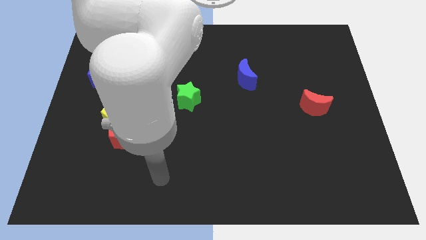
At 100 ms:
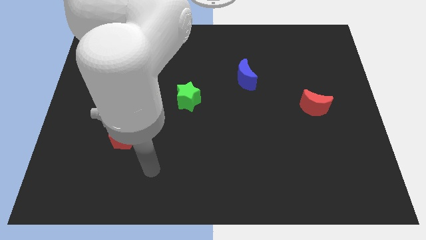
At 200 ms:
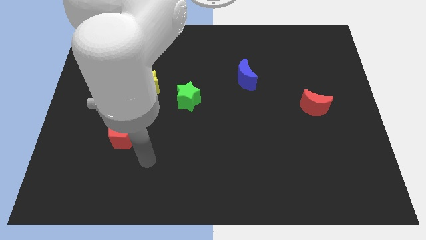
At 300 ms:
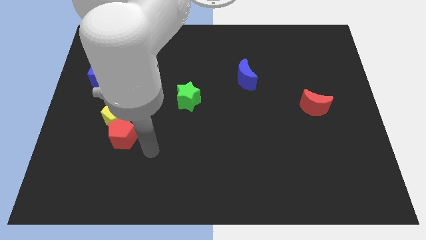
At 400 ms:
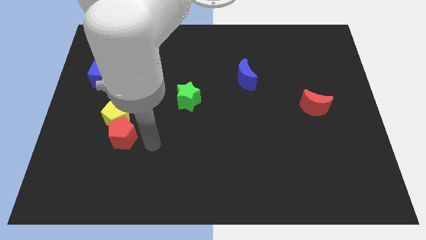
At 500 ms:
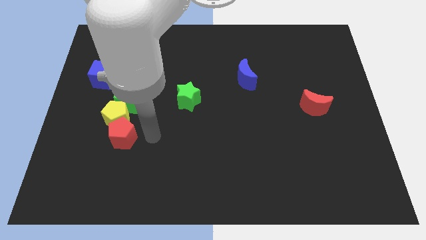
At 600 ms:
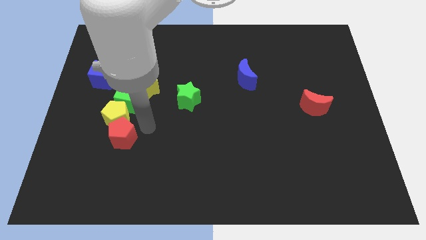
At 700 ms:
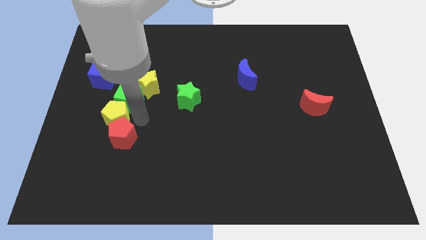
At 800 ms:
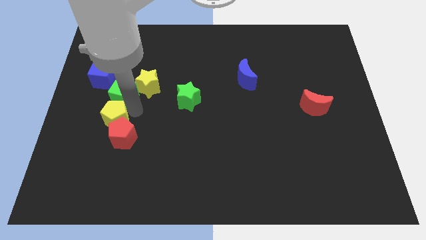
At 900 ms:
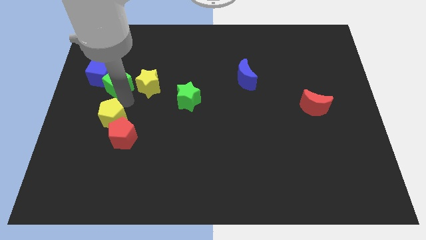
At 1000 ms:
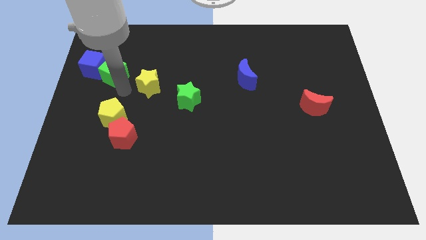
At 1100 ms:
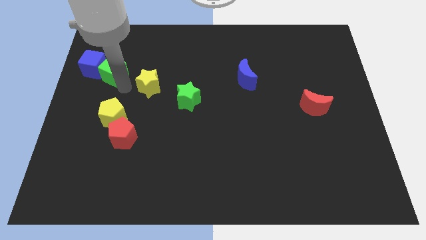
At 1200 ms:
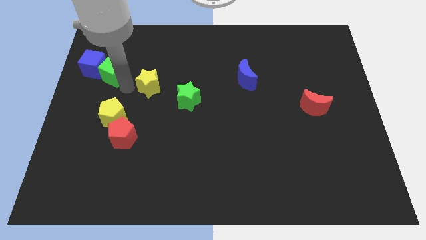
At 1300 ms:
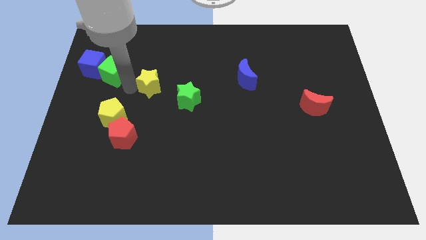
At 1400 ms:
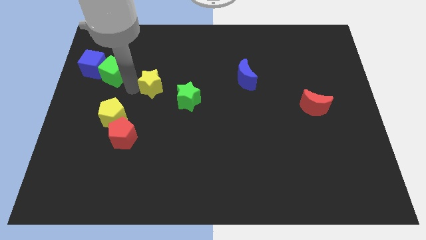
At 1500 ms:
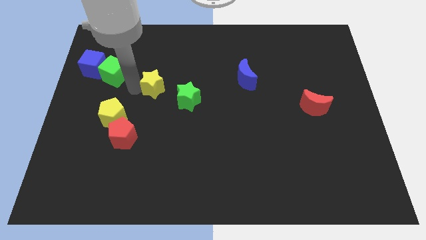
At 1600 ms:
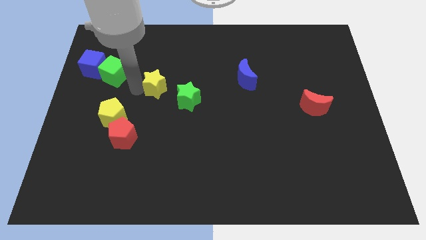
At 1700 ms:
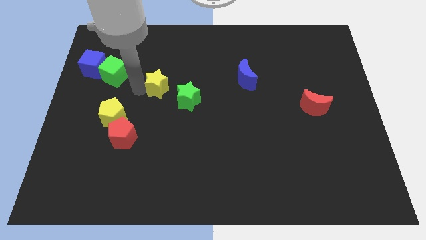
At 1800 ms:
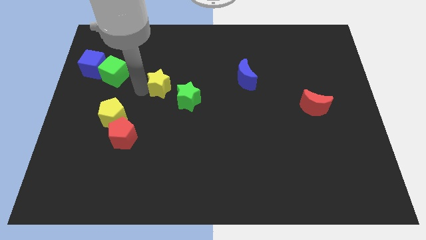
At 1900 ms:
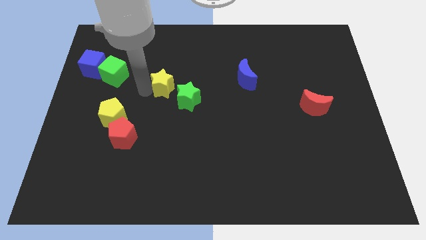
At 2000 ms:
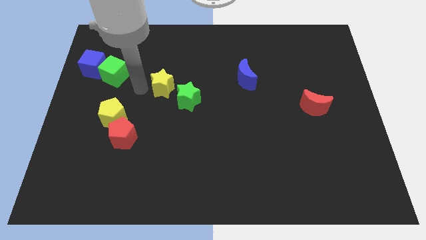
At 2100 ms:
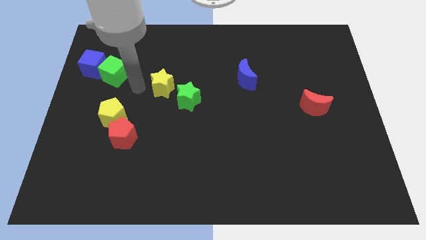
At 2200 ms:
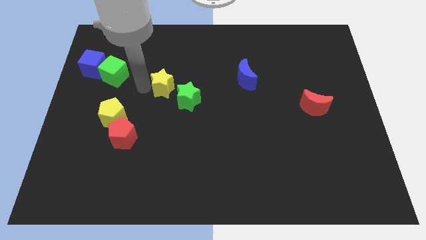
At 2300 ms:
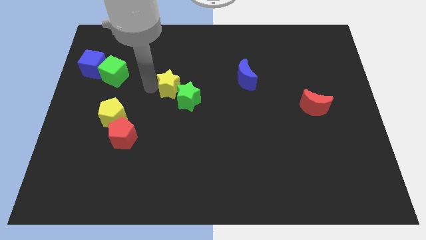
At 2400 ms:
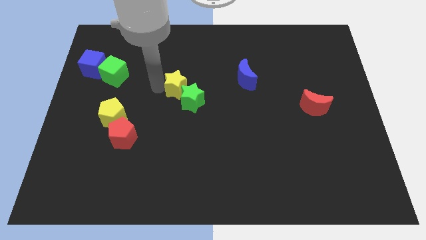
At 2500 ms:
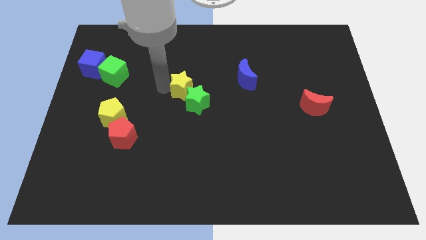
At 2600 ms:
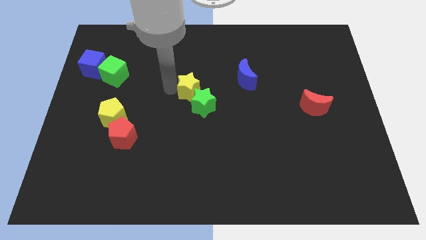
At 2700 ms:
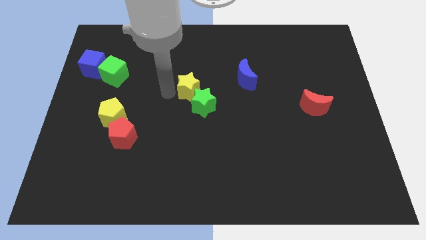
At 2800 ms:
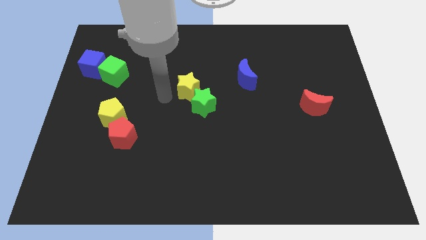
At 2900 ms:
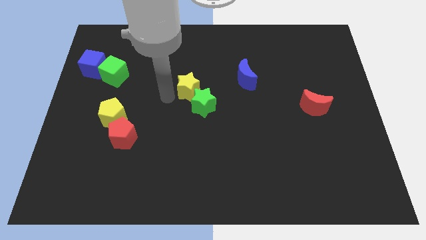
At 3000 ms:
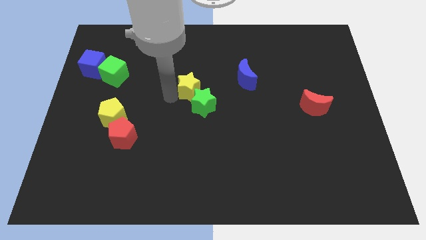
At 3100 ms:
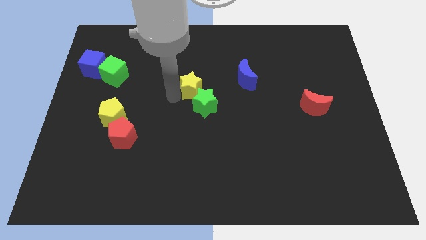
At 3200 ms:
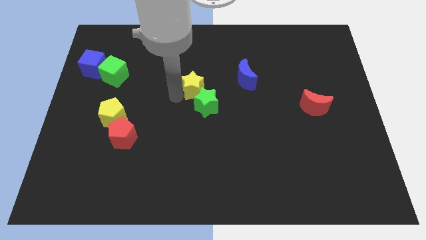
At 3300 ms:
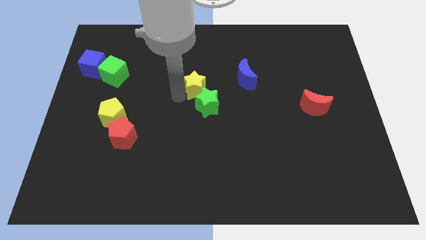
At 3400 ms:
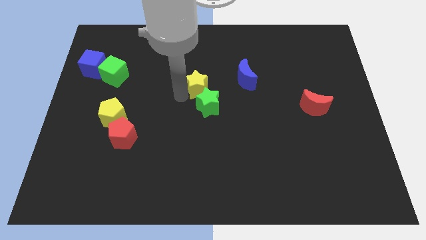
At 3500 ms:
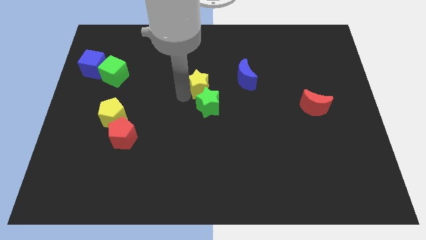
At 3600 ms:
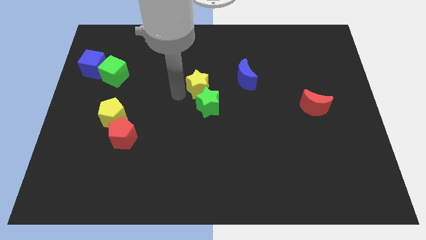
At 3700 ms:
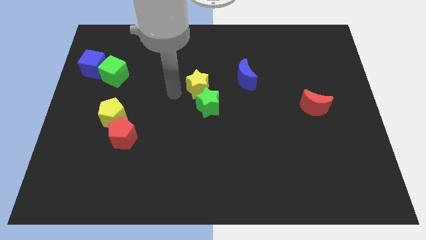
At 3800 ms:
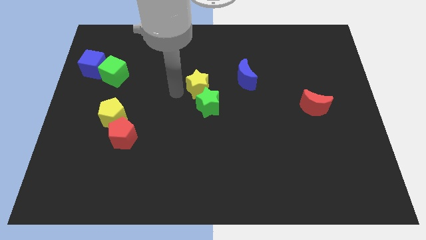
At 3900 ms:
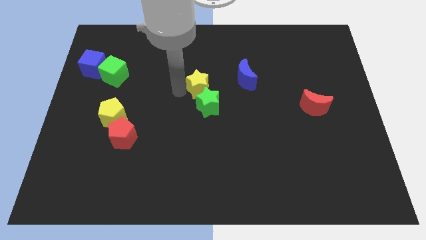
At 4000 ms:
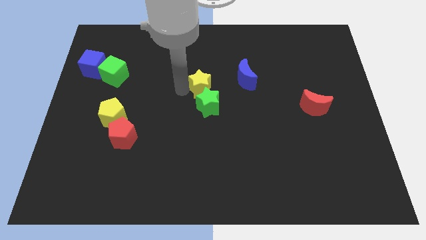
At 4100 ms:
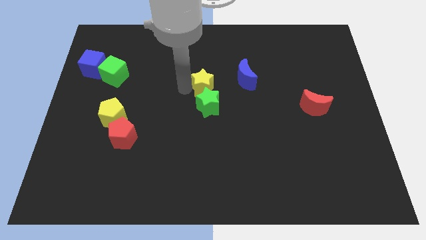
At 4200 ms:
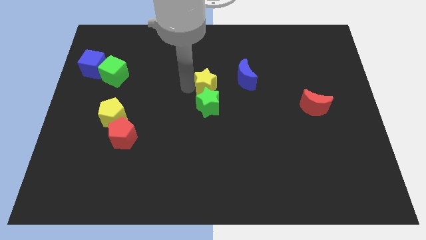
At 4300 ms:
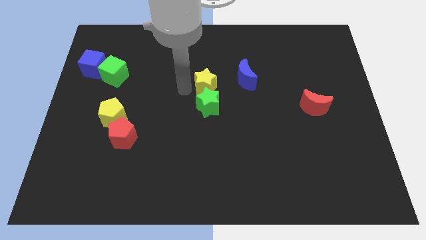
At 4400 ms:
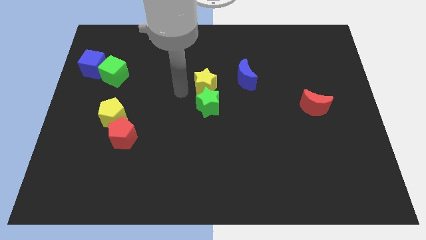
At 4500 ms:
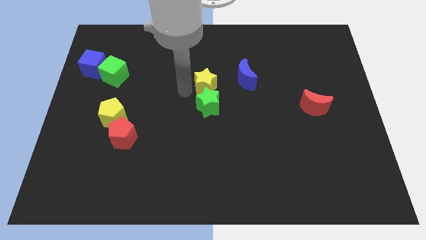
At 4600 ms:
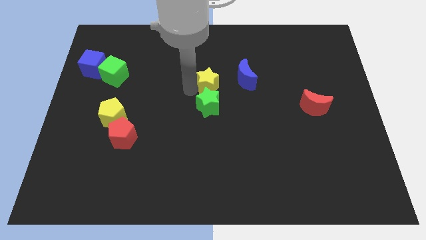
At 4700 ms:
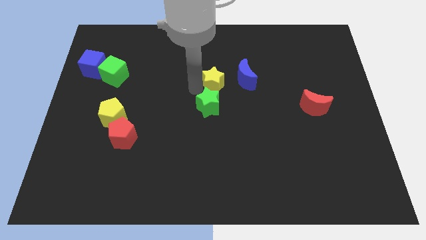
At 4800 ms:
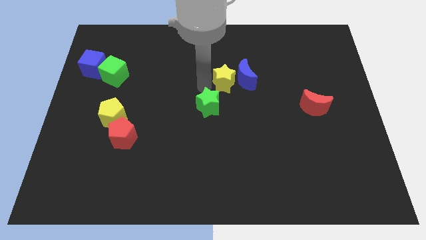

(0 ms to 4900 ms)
push the yellow star next to the blue moon

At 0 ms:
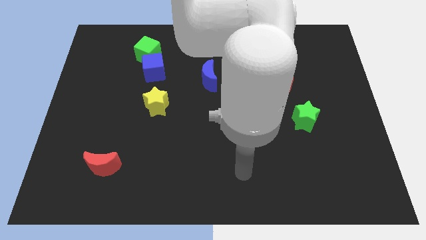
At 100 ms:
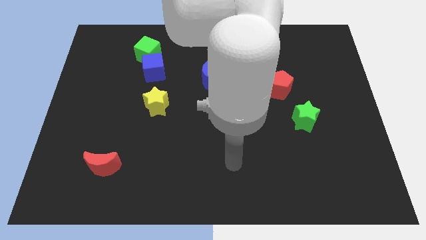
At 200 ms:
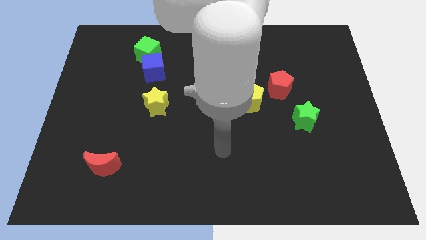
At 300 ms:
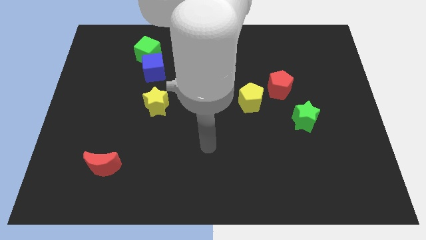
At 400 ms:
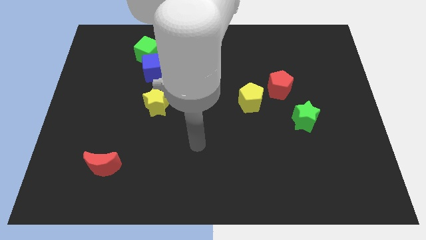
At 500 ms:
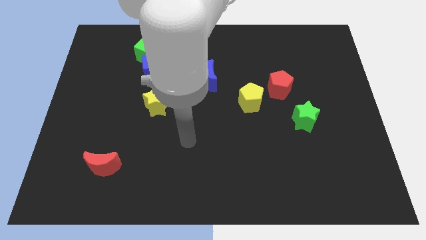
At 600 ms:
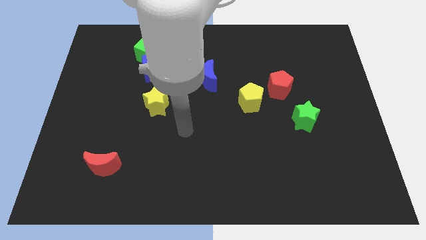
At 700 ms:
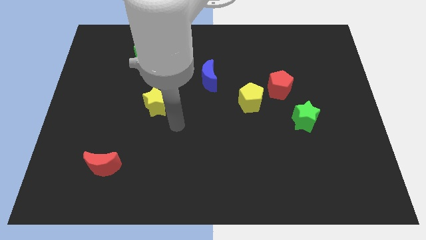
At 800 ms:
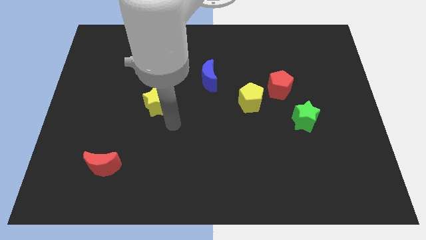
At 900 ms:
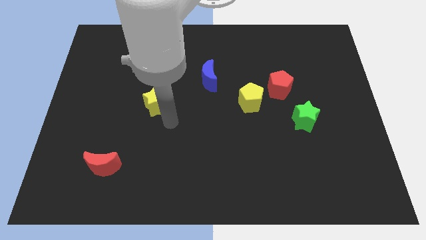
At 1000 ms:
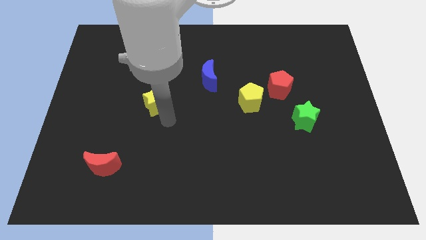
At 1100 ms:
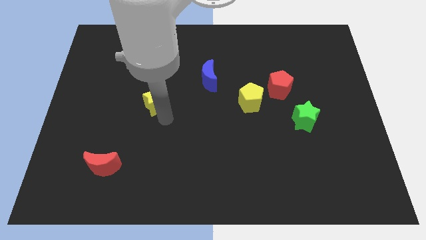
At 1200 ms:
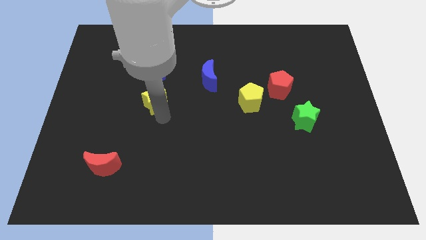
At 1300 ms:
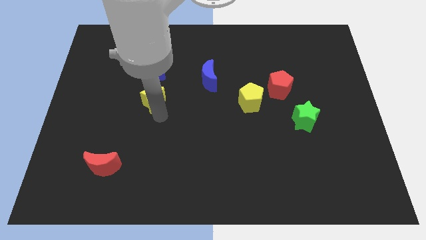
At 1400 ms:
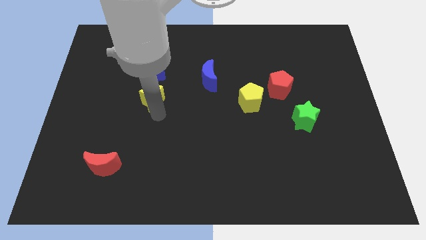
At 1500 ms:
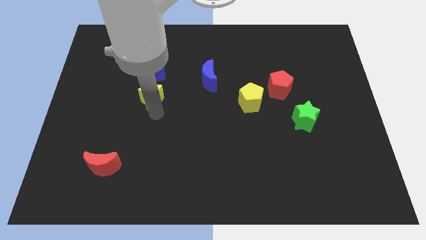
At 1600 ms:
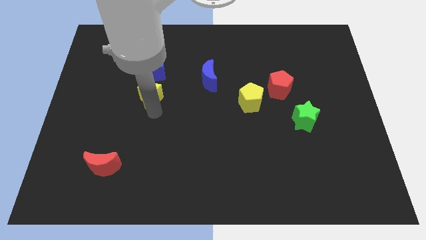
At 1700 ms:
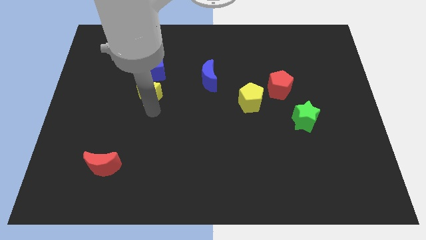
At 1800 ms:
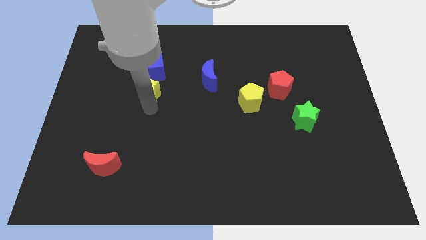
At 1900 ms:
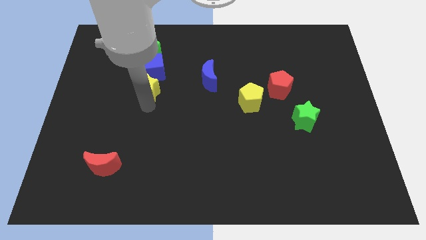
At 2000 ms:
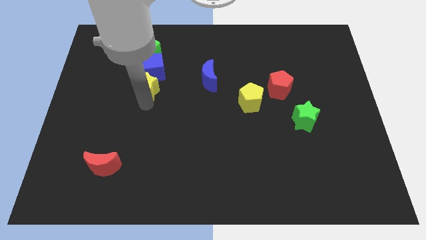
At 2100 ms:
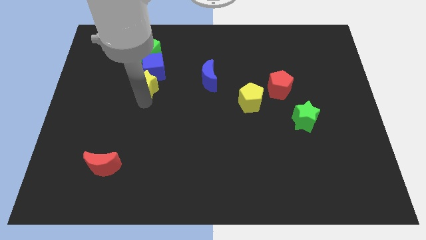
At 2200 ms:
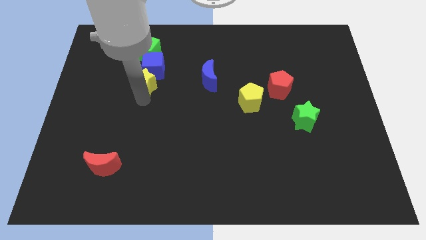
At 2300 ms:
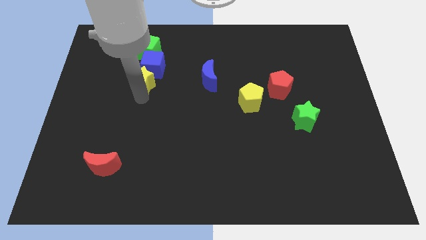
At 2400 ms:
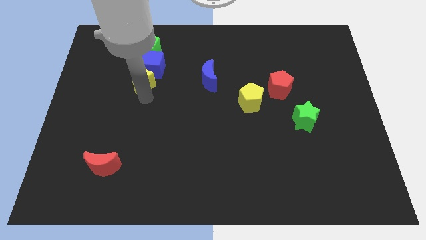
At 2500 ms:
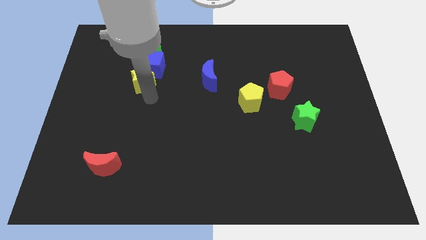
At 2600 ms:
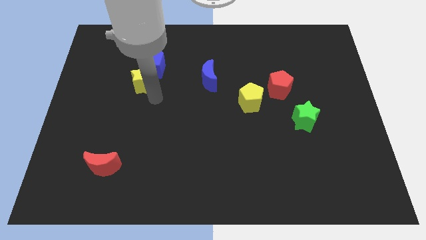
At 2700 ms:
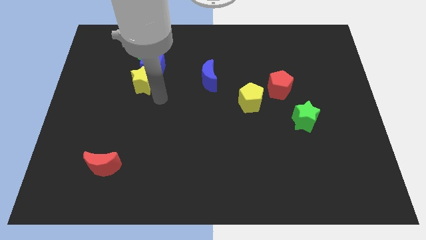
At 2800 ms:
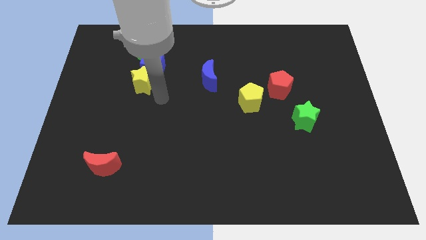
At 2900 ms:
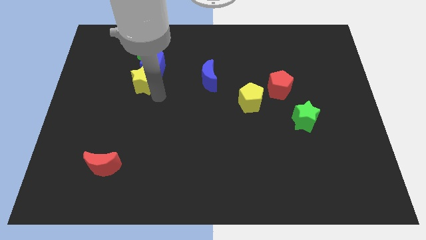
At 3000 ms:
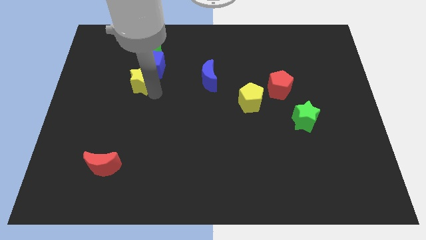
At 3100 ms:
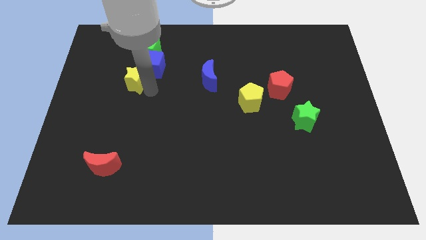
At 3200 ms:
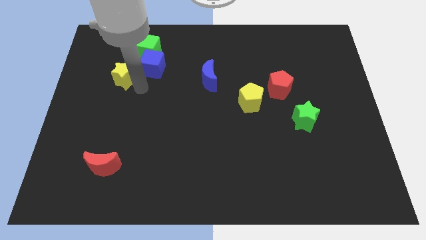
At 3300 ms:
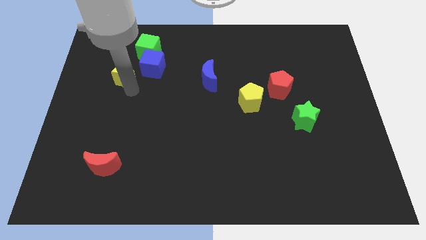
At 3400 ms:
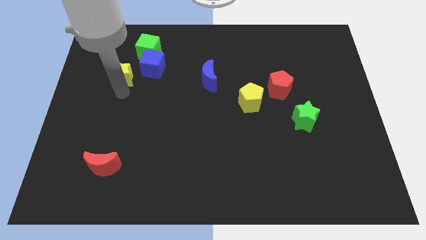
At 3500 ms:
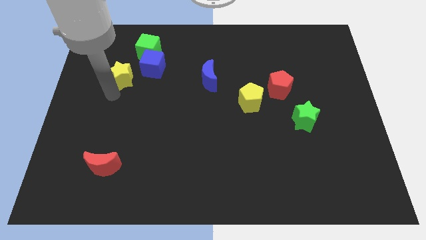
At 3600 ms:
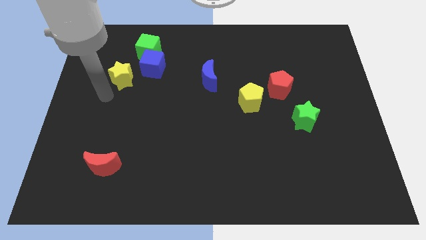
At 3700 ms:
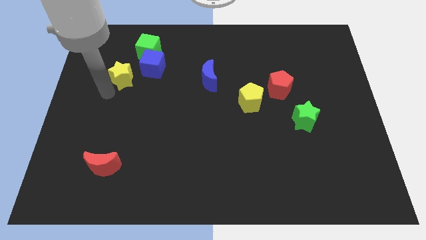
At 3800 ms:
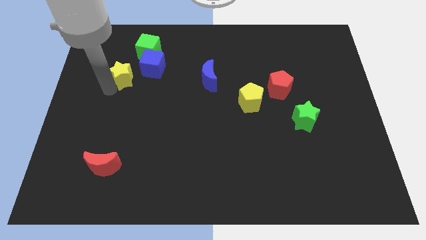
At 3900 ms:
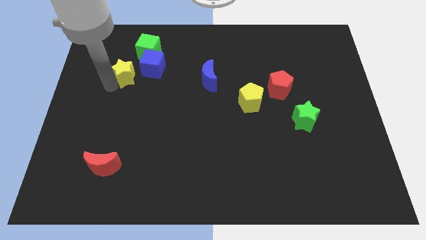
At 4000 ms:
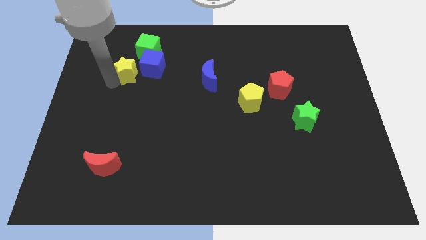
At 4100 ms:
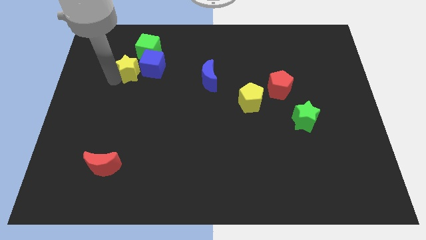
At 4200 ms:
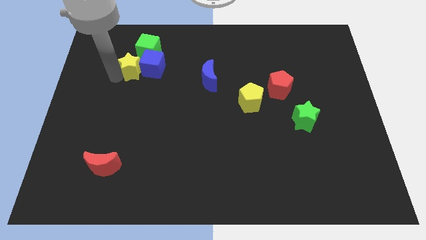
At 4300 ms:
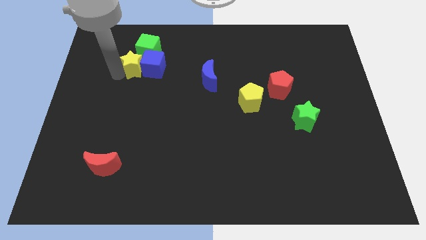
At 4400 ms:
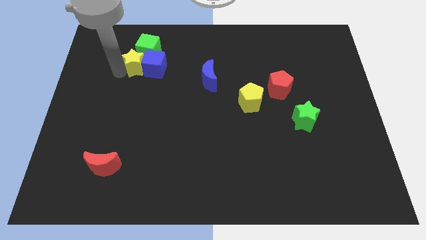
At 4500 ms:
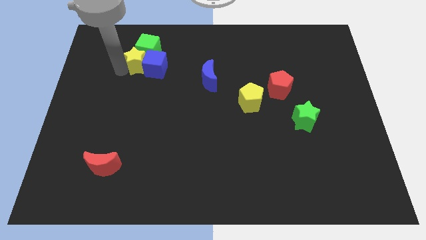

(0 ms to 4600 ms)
slide the yellow star next to the green cube
